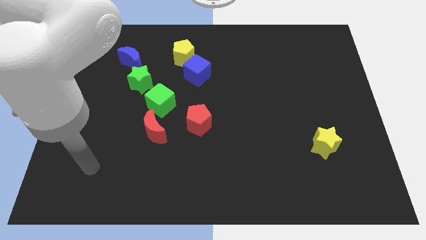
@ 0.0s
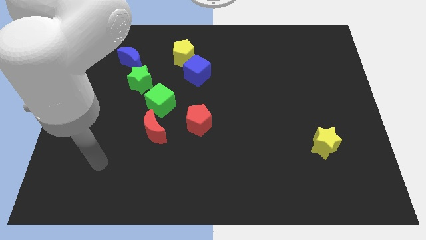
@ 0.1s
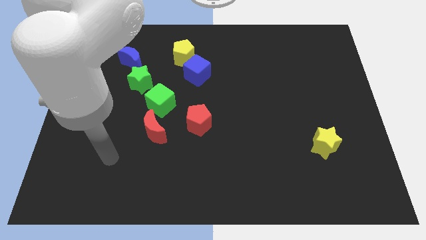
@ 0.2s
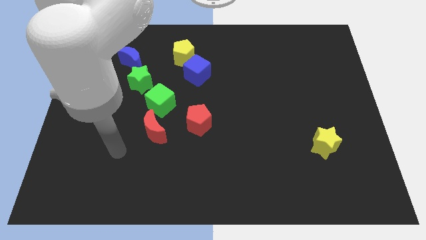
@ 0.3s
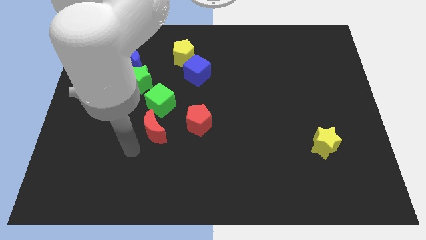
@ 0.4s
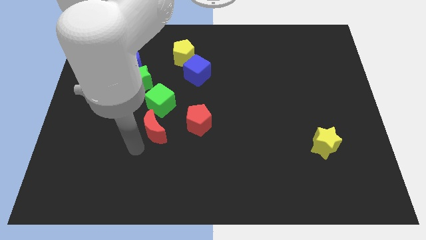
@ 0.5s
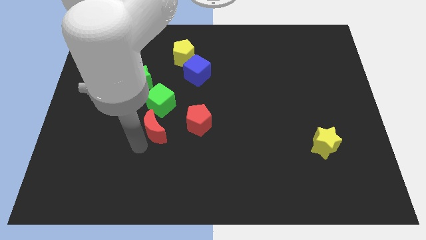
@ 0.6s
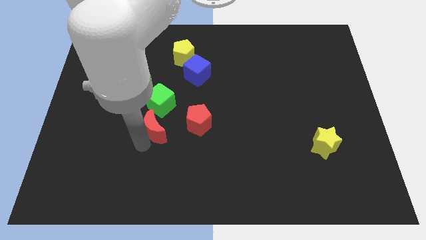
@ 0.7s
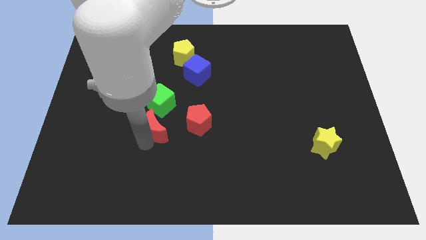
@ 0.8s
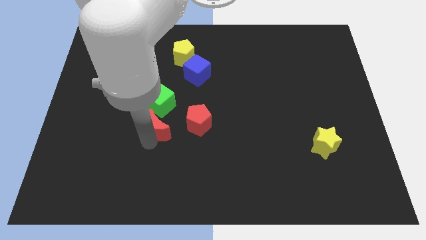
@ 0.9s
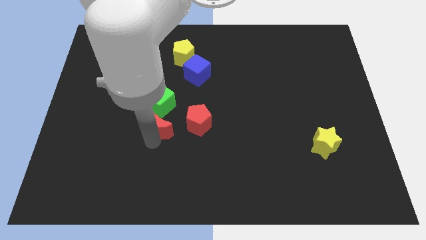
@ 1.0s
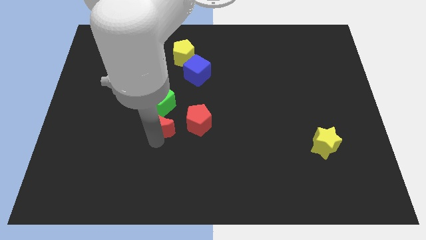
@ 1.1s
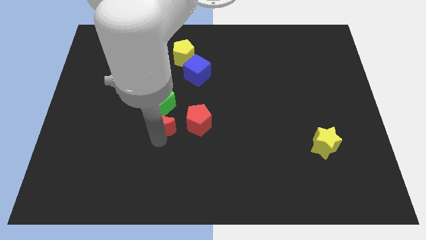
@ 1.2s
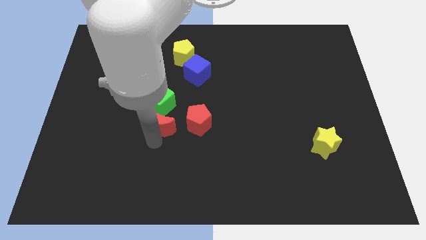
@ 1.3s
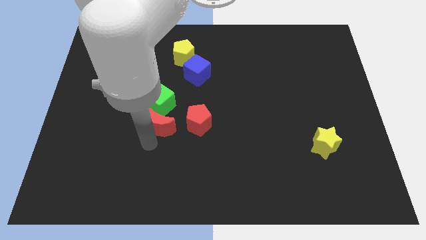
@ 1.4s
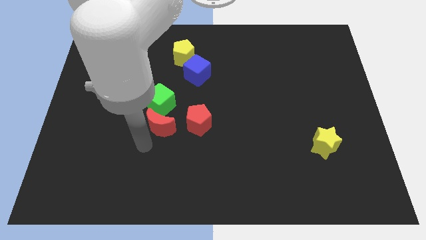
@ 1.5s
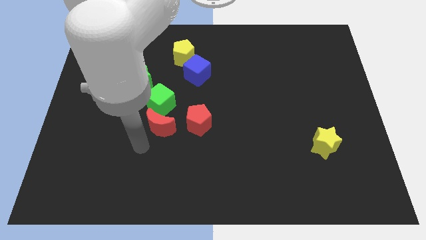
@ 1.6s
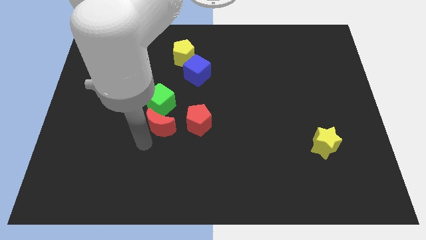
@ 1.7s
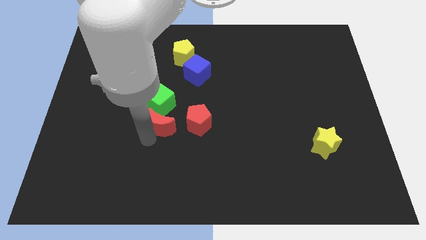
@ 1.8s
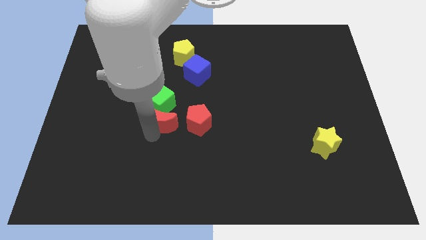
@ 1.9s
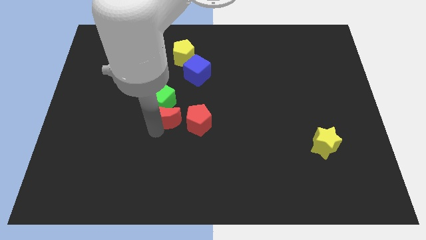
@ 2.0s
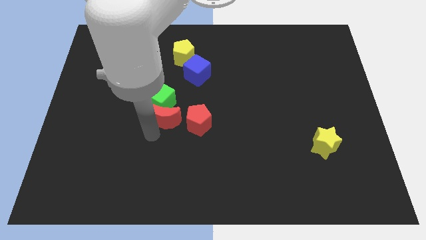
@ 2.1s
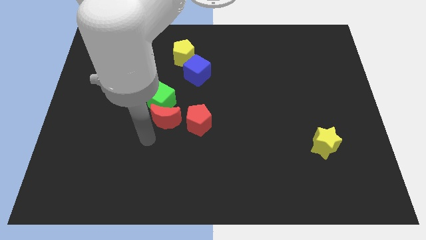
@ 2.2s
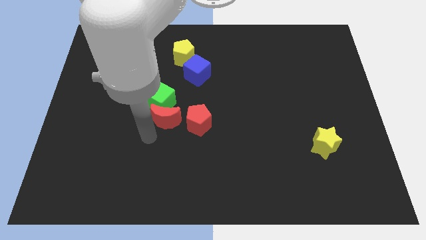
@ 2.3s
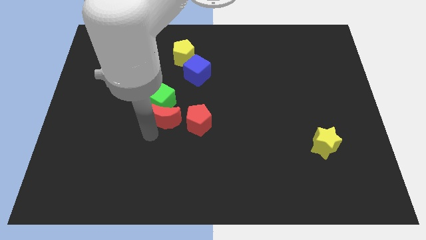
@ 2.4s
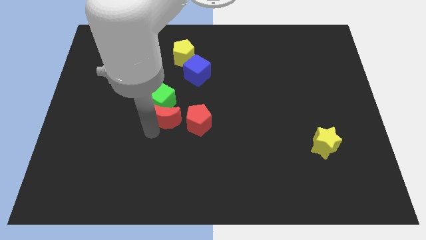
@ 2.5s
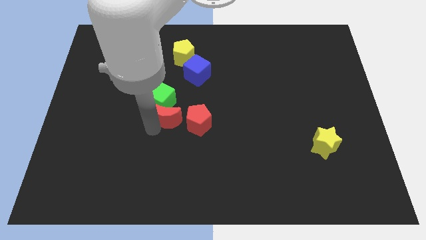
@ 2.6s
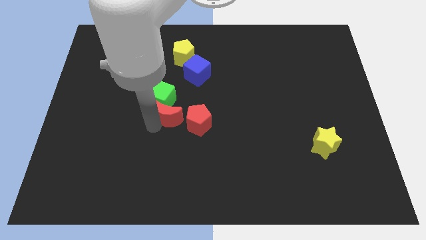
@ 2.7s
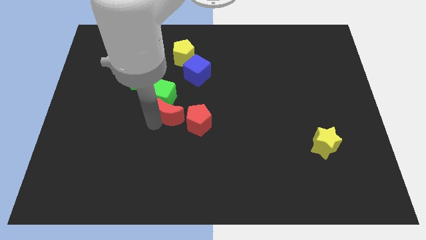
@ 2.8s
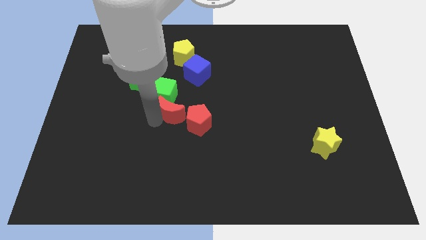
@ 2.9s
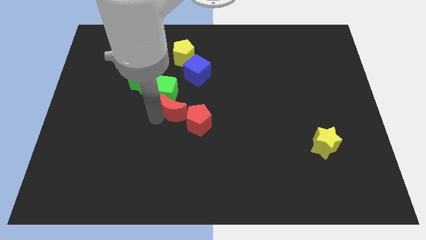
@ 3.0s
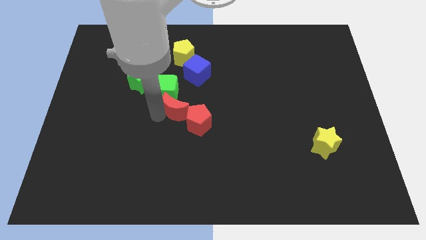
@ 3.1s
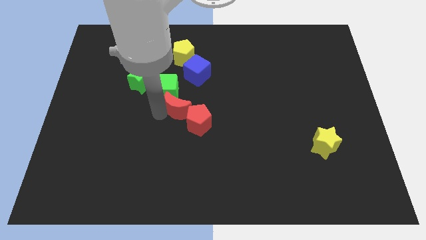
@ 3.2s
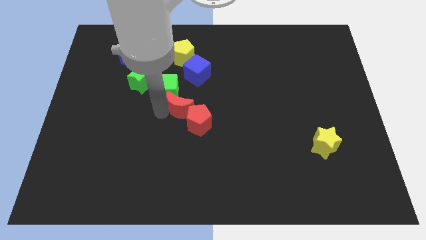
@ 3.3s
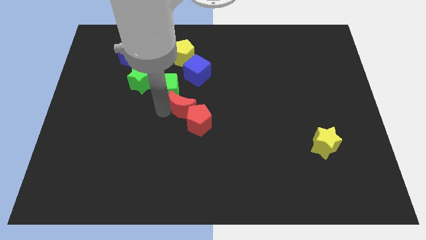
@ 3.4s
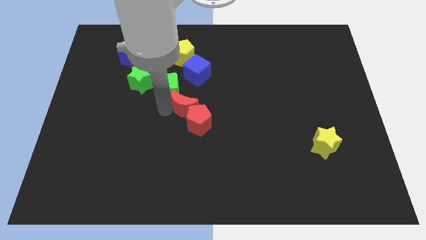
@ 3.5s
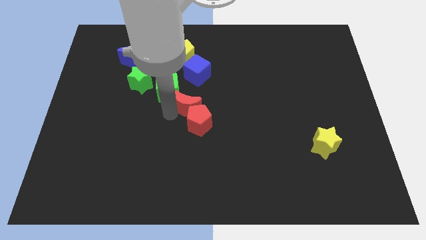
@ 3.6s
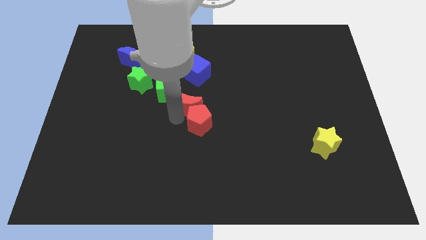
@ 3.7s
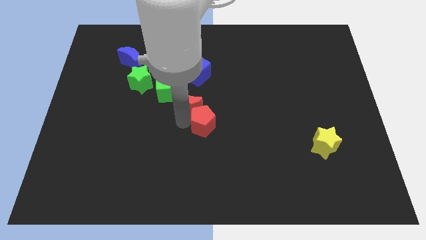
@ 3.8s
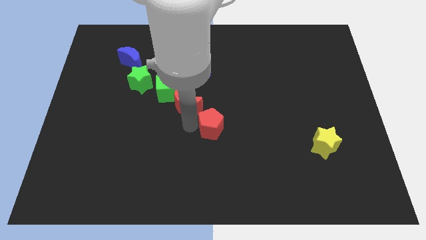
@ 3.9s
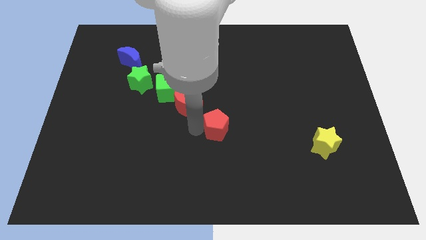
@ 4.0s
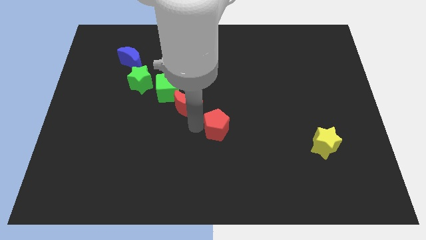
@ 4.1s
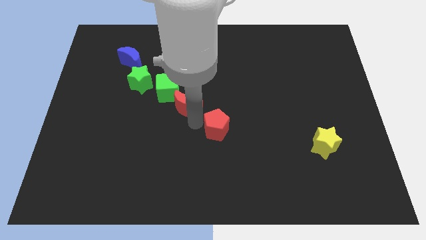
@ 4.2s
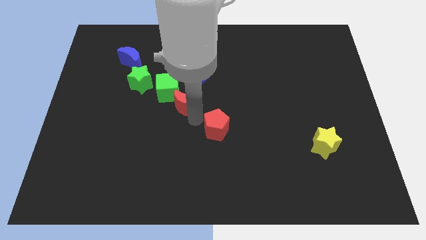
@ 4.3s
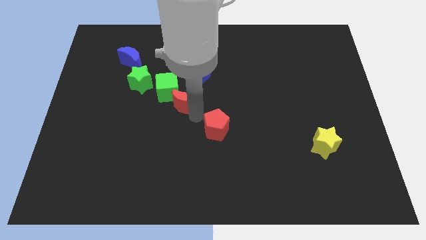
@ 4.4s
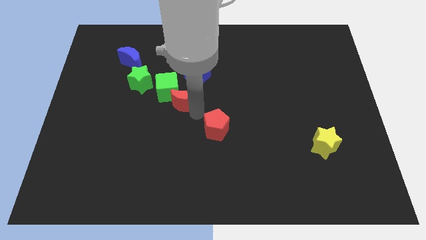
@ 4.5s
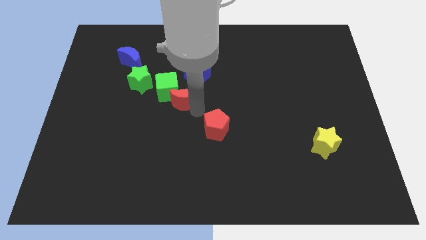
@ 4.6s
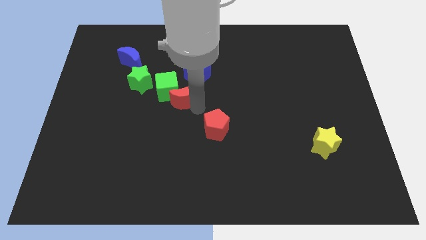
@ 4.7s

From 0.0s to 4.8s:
slightly push the red moon up

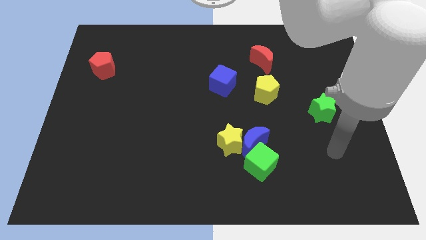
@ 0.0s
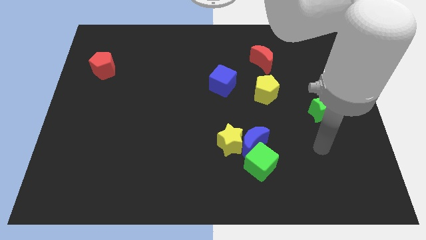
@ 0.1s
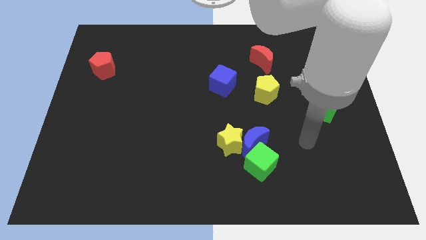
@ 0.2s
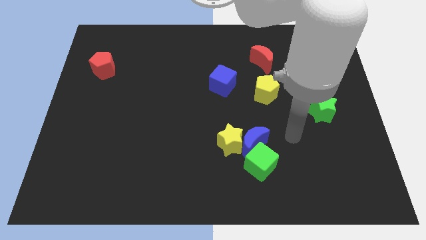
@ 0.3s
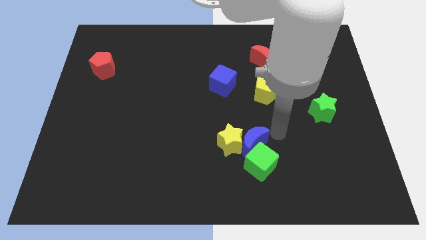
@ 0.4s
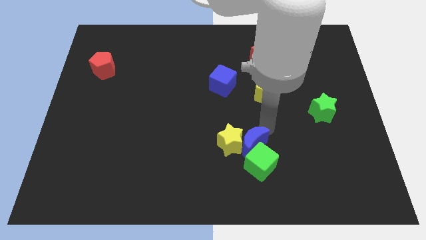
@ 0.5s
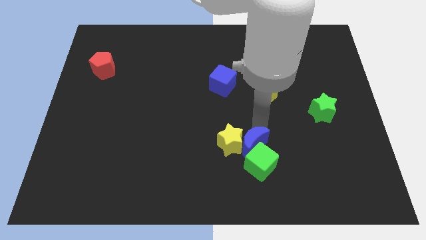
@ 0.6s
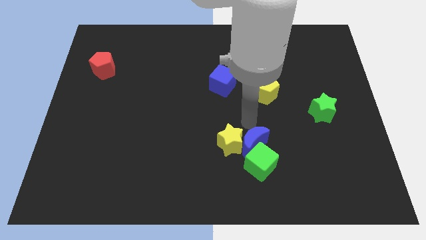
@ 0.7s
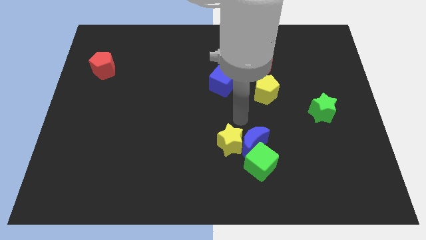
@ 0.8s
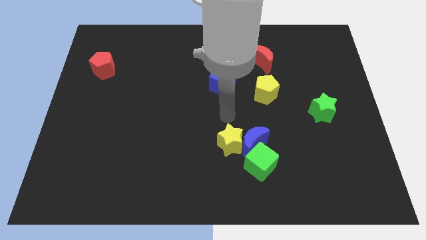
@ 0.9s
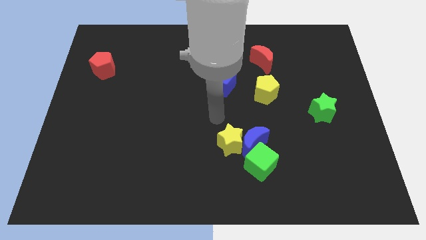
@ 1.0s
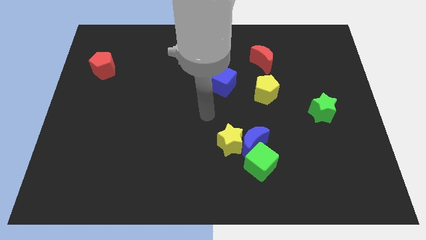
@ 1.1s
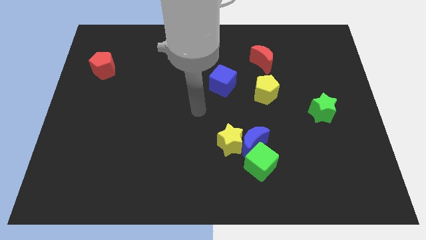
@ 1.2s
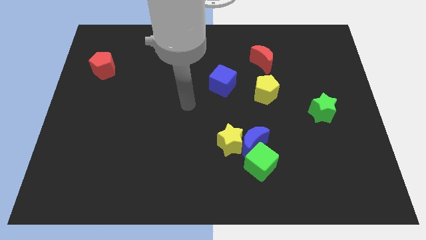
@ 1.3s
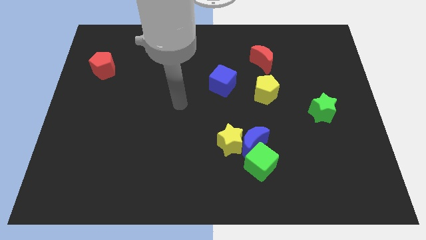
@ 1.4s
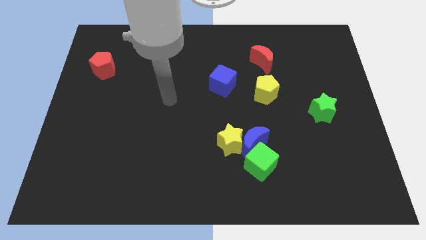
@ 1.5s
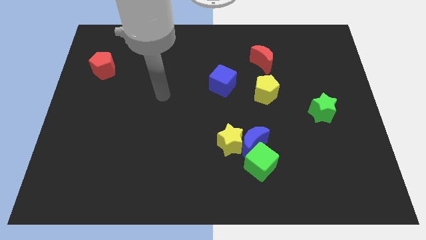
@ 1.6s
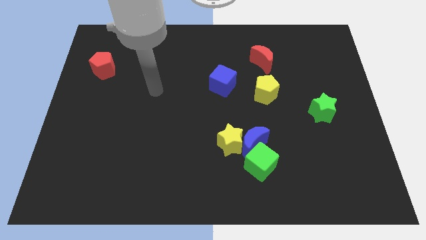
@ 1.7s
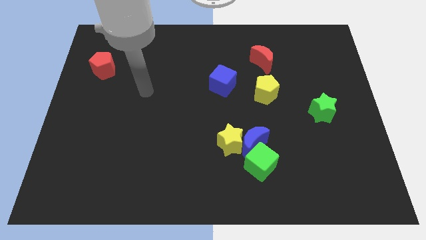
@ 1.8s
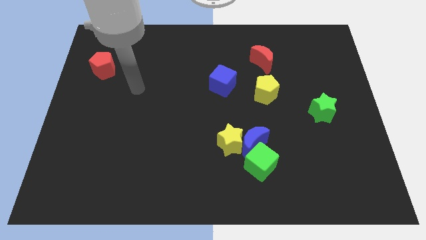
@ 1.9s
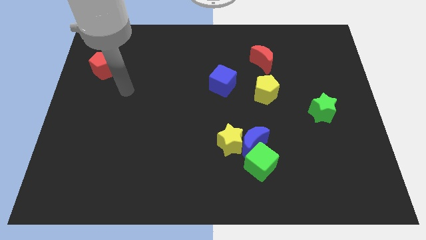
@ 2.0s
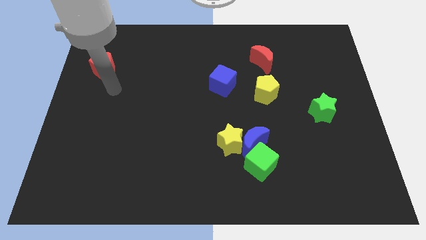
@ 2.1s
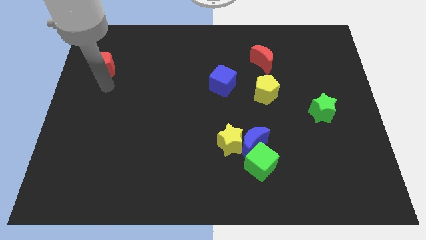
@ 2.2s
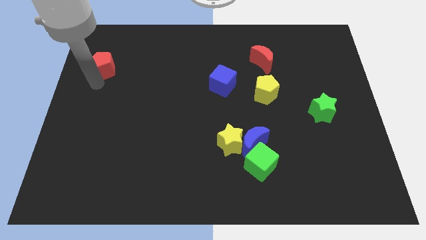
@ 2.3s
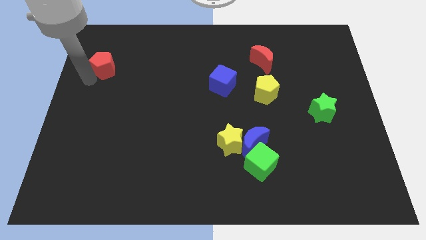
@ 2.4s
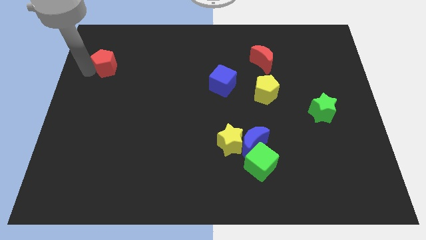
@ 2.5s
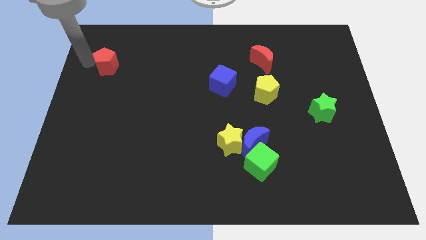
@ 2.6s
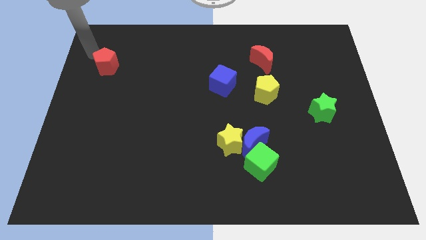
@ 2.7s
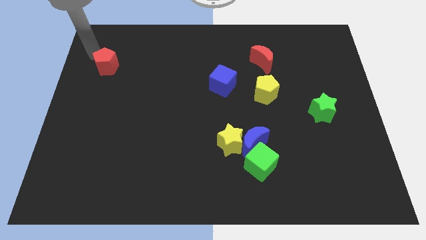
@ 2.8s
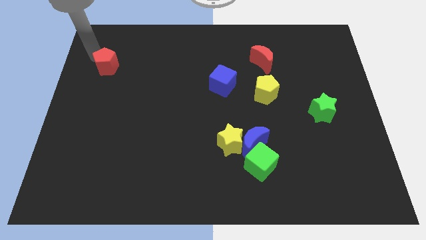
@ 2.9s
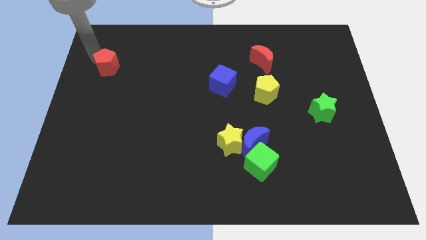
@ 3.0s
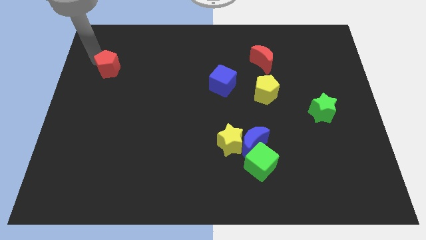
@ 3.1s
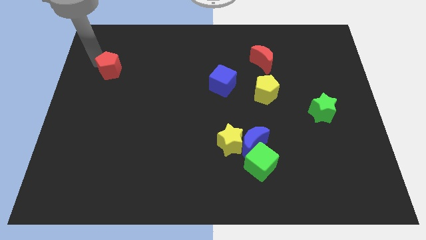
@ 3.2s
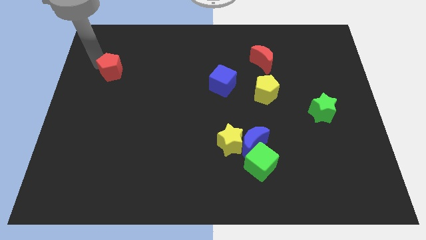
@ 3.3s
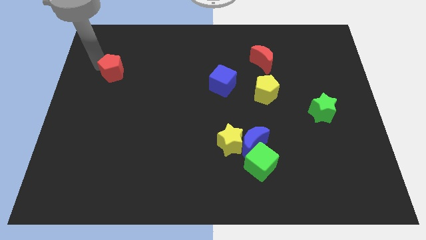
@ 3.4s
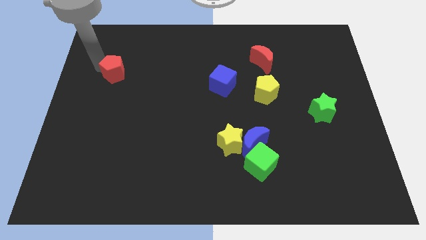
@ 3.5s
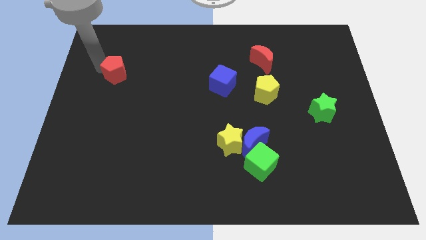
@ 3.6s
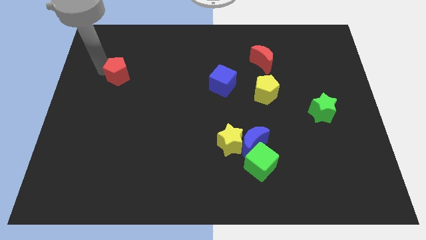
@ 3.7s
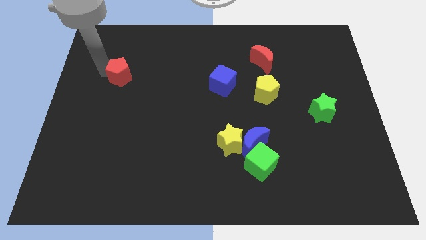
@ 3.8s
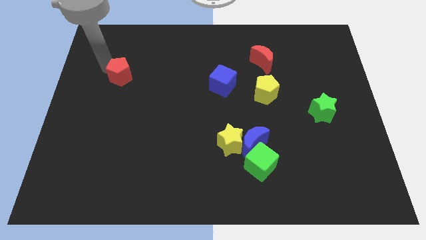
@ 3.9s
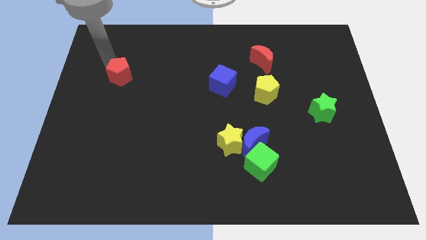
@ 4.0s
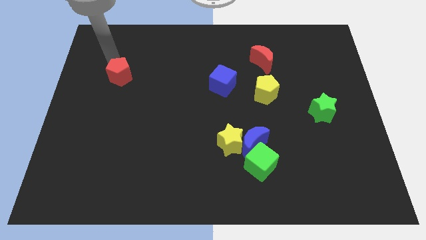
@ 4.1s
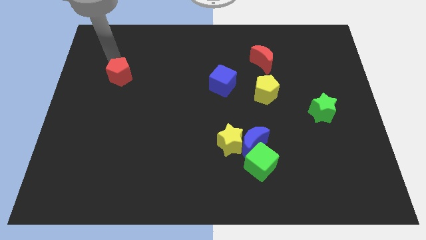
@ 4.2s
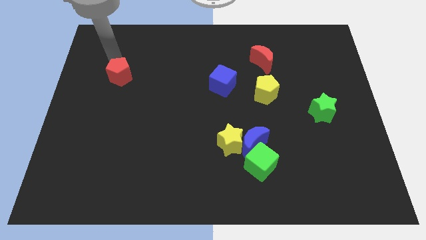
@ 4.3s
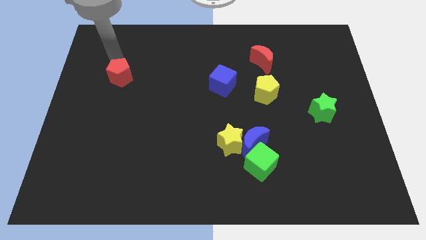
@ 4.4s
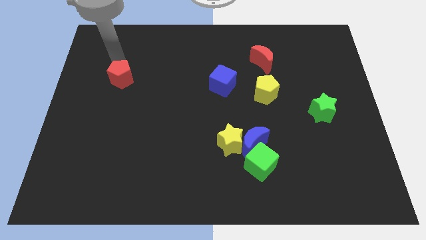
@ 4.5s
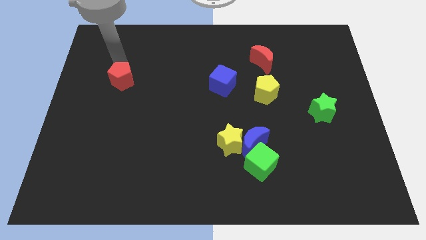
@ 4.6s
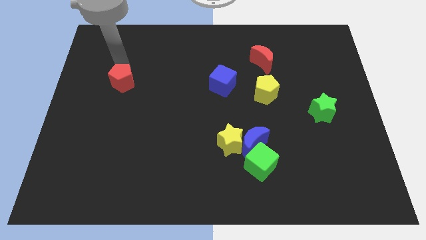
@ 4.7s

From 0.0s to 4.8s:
slightly push the red pentagon downwards and right
